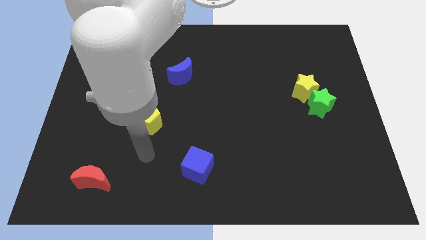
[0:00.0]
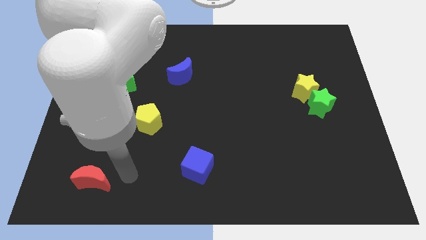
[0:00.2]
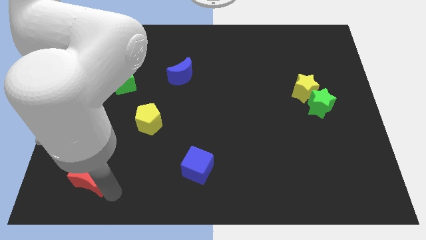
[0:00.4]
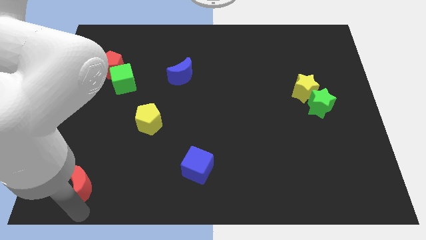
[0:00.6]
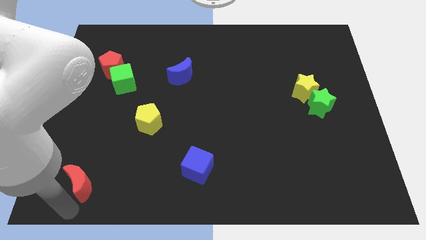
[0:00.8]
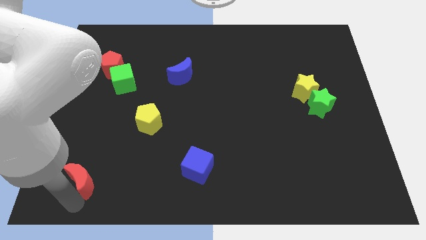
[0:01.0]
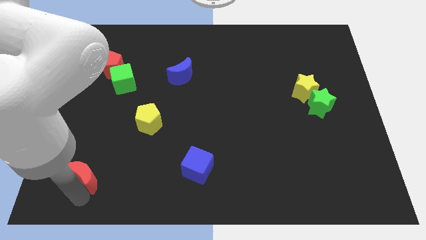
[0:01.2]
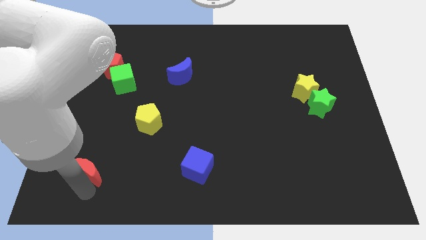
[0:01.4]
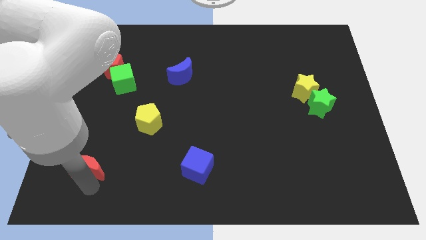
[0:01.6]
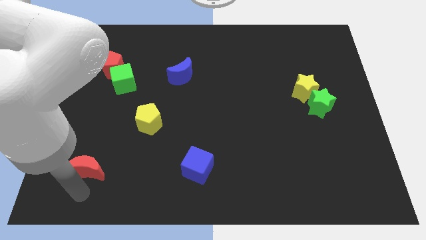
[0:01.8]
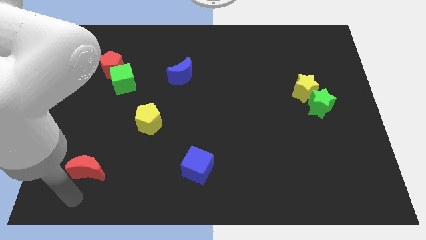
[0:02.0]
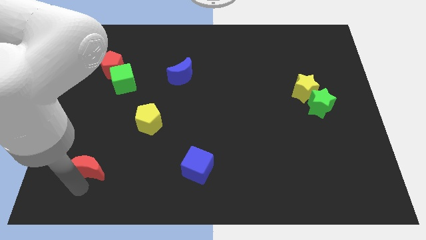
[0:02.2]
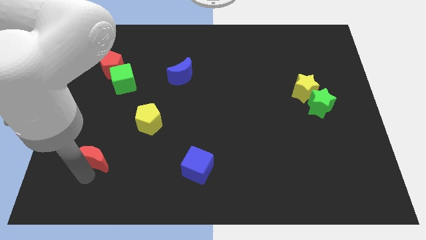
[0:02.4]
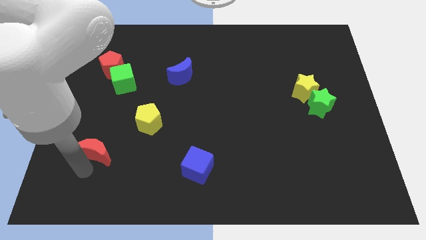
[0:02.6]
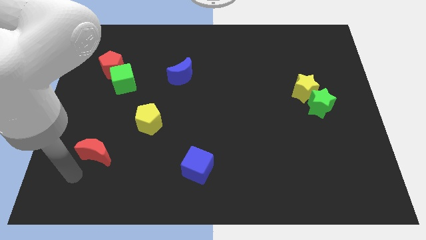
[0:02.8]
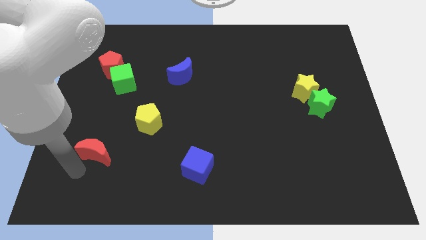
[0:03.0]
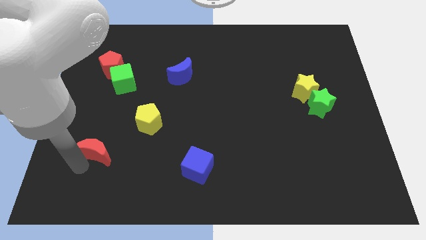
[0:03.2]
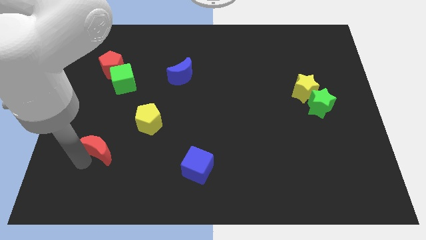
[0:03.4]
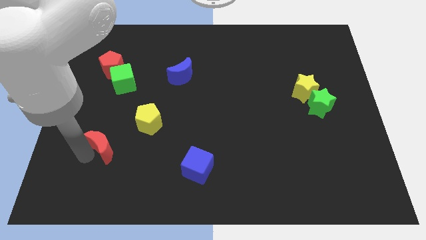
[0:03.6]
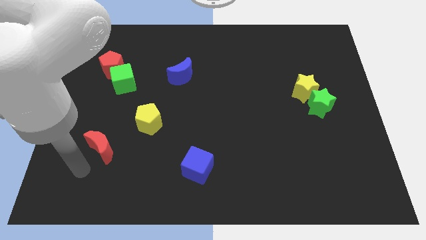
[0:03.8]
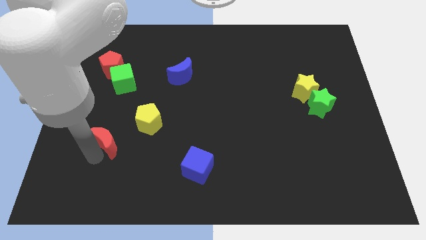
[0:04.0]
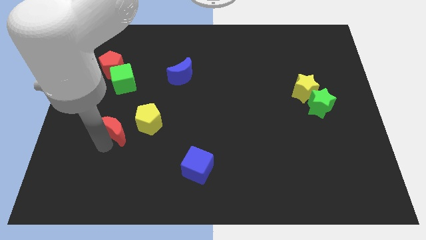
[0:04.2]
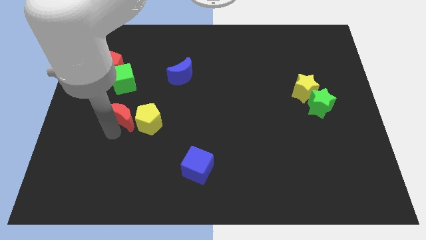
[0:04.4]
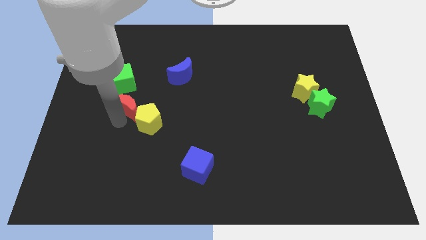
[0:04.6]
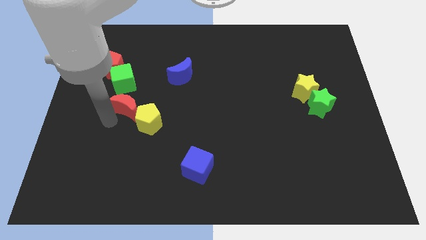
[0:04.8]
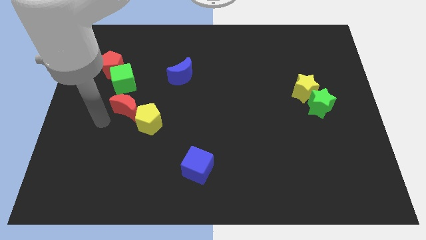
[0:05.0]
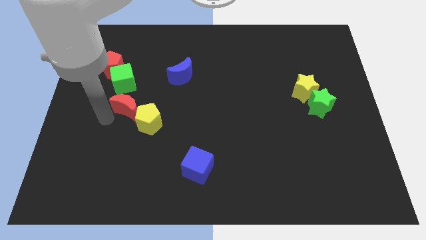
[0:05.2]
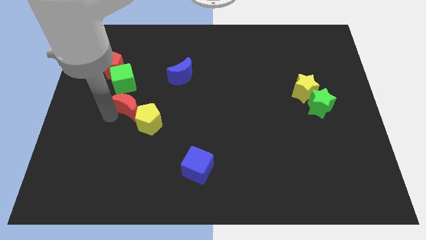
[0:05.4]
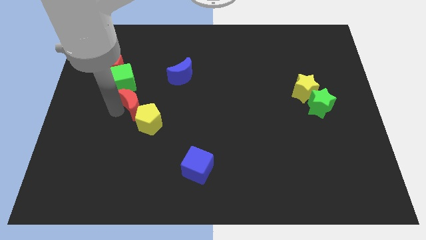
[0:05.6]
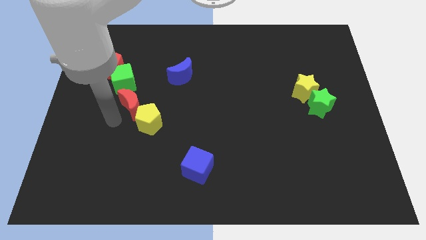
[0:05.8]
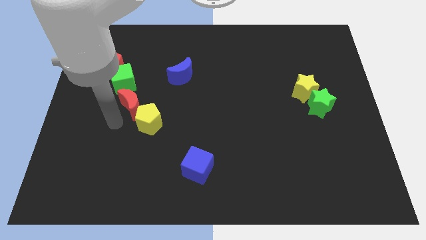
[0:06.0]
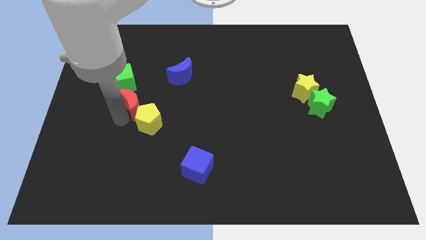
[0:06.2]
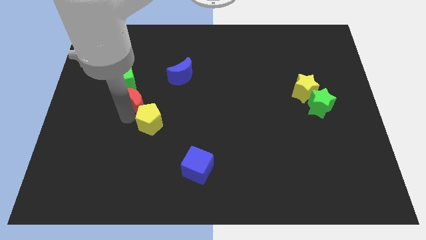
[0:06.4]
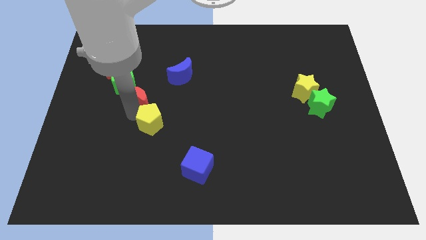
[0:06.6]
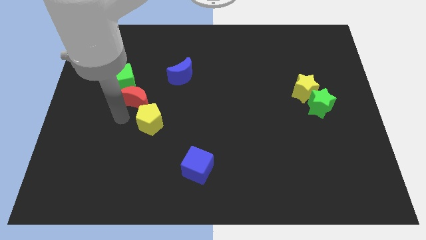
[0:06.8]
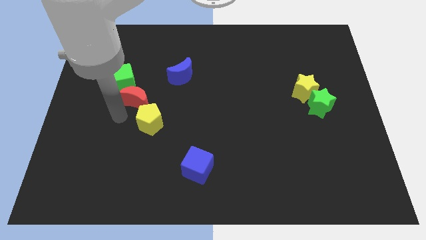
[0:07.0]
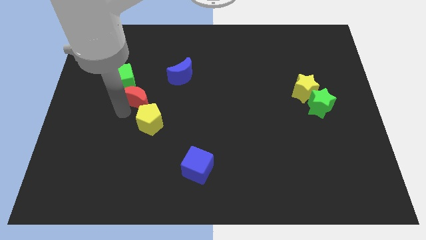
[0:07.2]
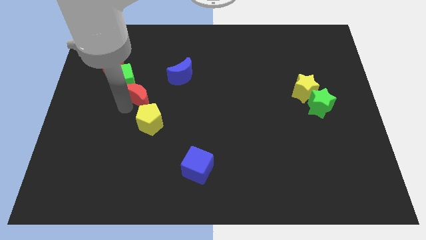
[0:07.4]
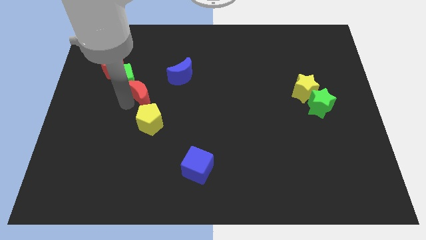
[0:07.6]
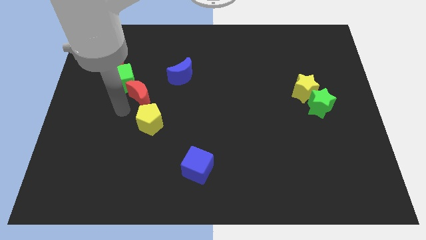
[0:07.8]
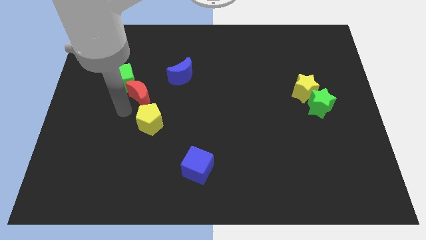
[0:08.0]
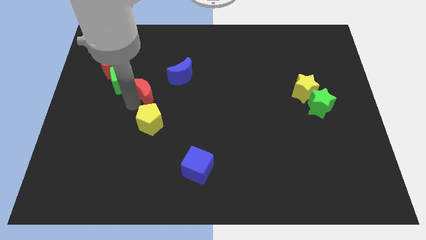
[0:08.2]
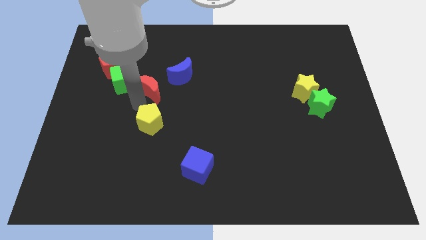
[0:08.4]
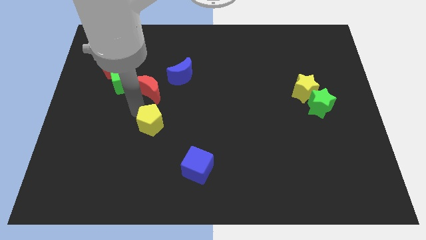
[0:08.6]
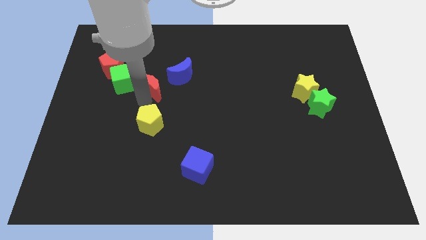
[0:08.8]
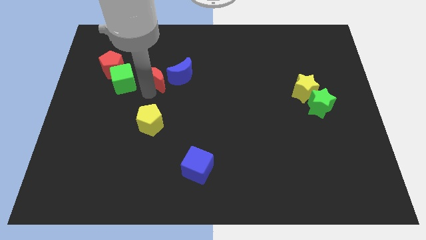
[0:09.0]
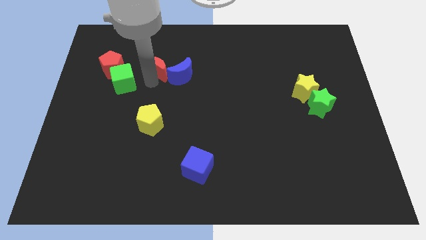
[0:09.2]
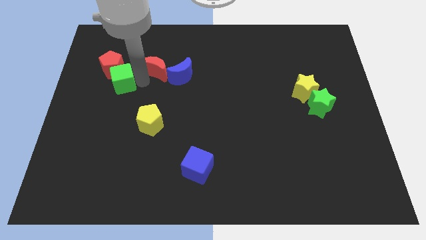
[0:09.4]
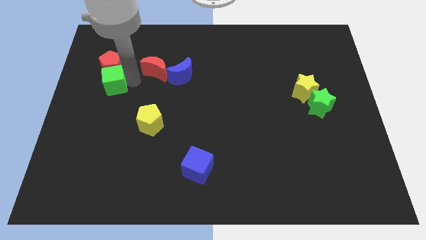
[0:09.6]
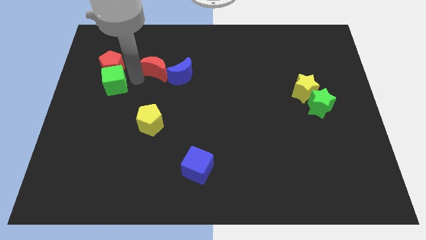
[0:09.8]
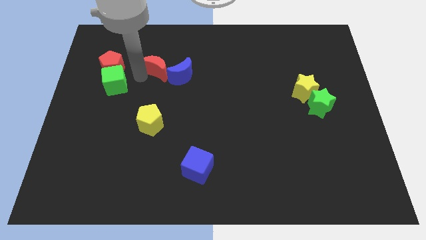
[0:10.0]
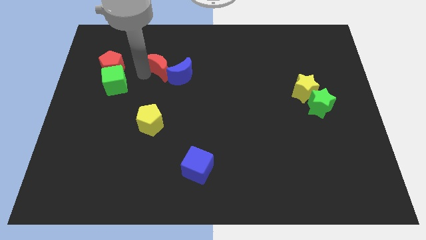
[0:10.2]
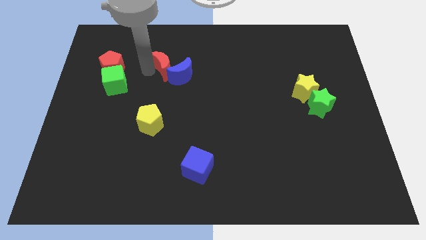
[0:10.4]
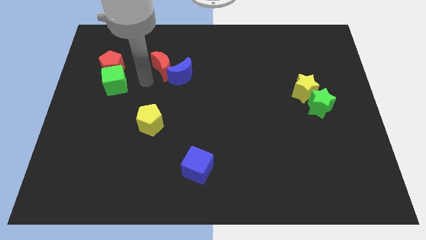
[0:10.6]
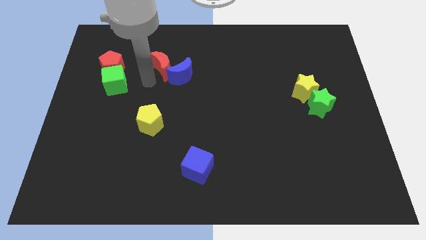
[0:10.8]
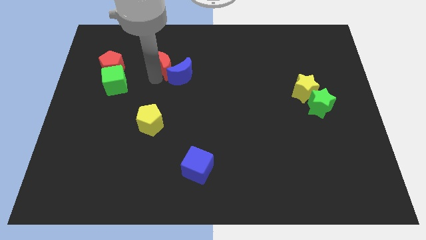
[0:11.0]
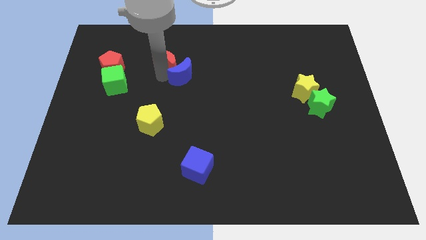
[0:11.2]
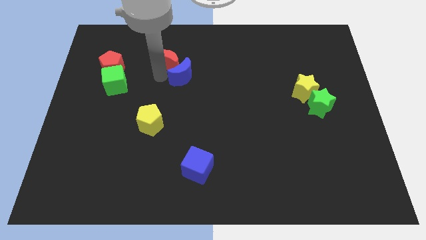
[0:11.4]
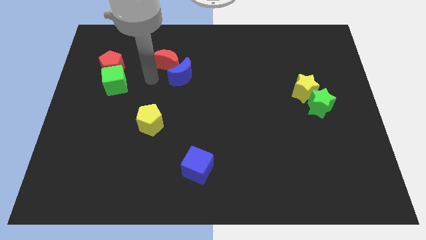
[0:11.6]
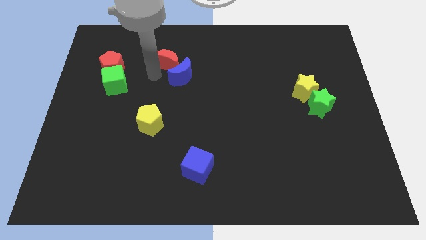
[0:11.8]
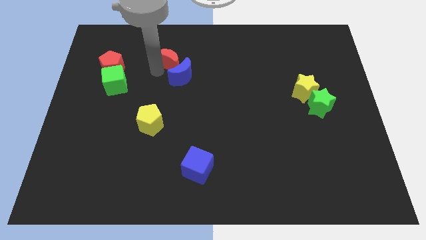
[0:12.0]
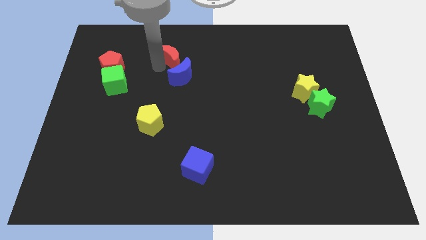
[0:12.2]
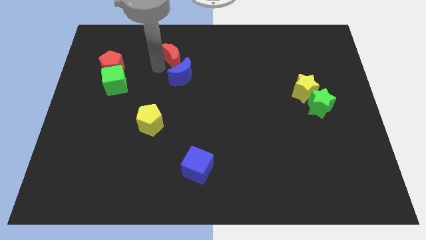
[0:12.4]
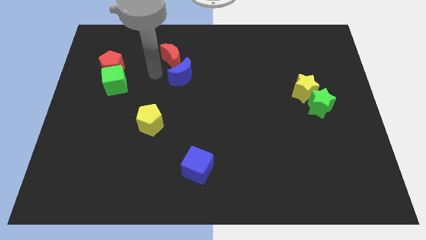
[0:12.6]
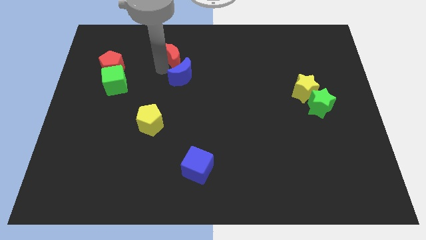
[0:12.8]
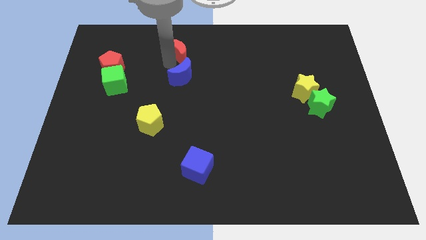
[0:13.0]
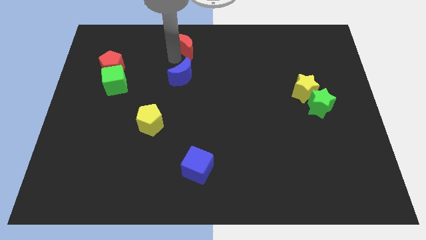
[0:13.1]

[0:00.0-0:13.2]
move the red moon to the towards your base
